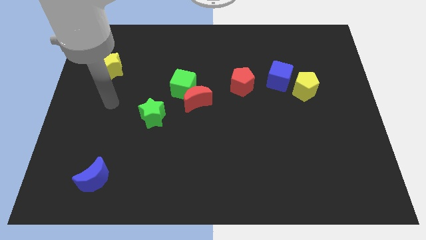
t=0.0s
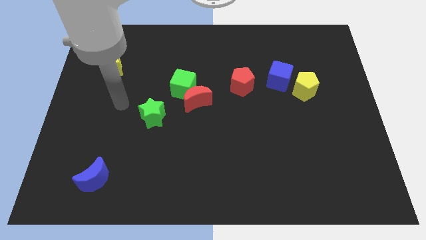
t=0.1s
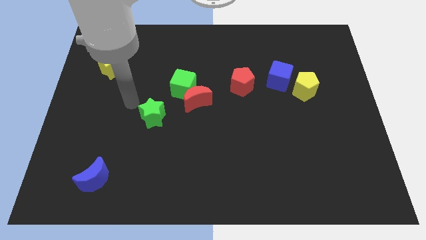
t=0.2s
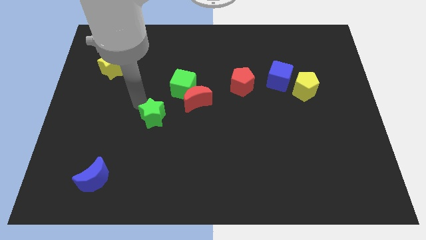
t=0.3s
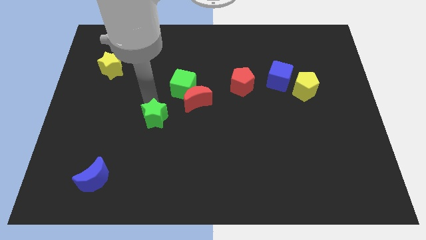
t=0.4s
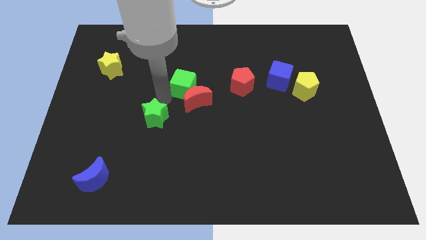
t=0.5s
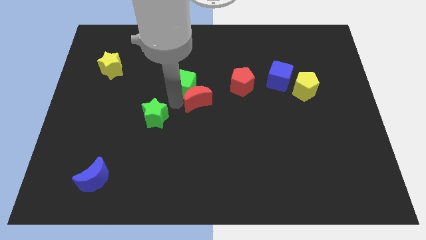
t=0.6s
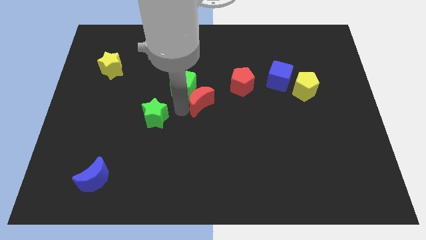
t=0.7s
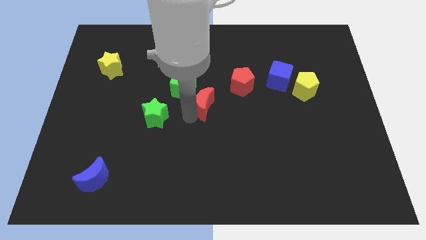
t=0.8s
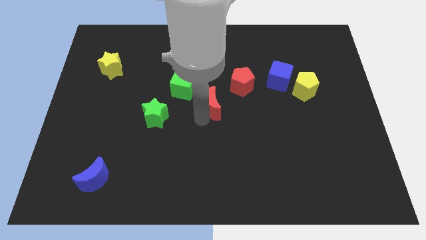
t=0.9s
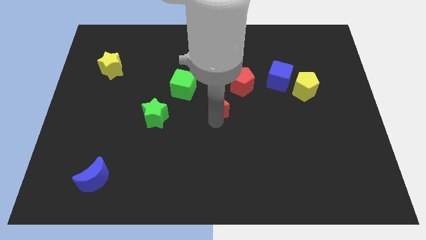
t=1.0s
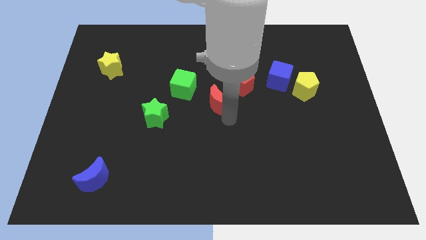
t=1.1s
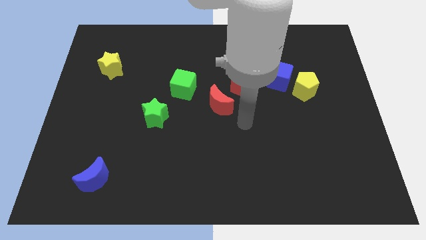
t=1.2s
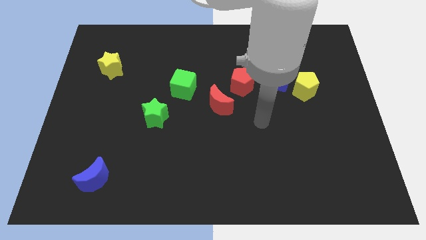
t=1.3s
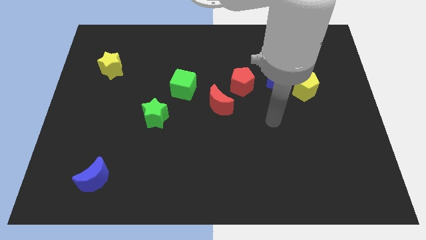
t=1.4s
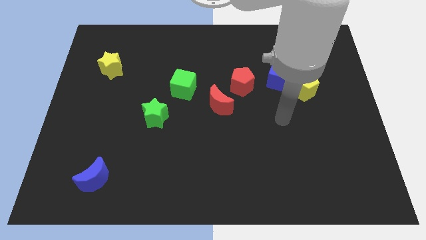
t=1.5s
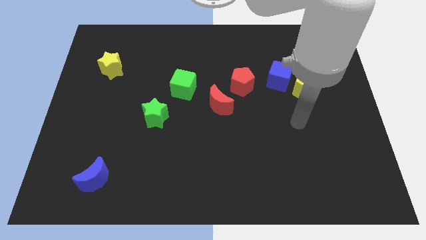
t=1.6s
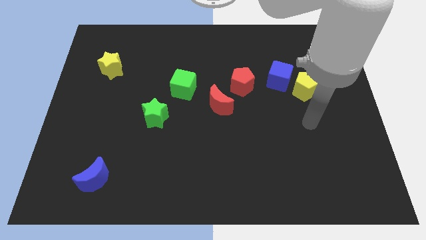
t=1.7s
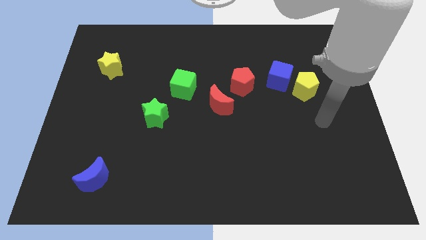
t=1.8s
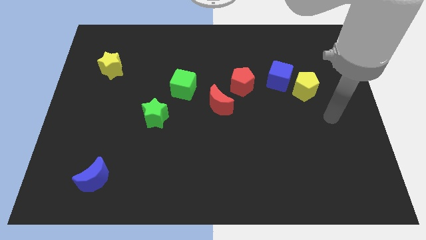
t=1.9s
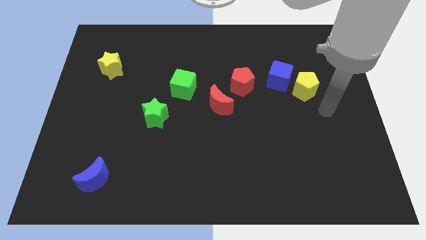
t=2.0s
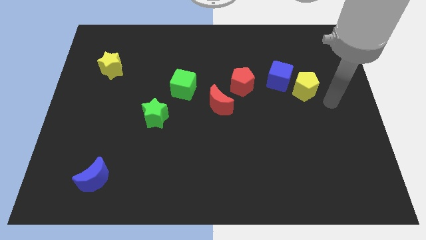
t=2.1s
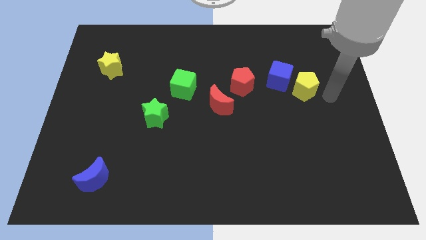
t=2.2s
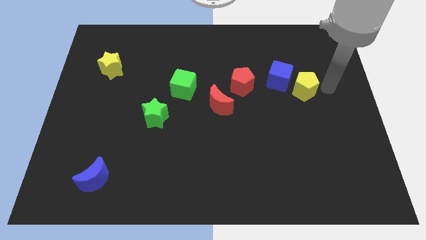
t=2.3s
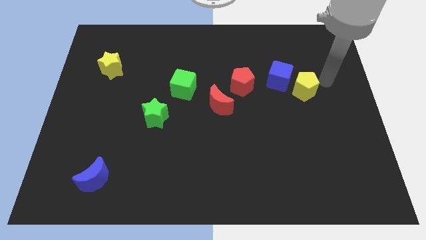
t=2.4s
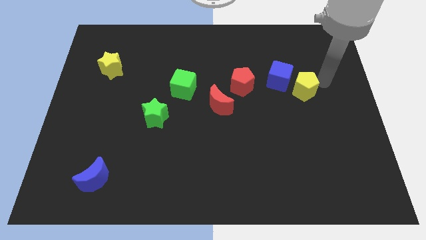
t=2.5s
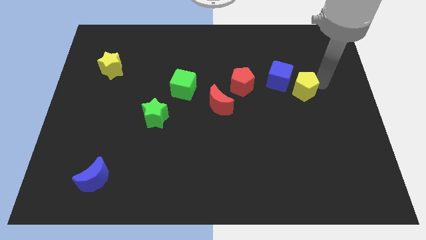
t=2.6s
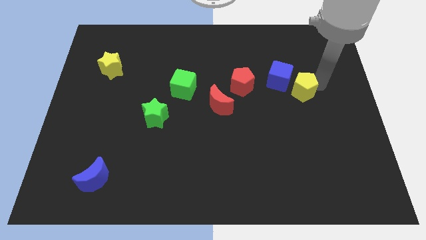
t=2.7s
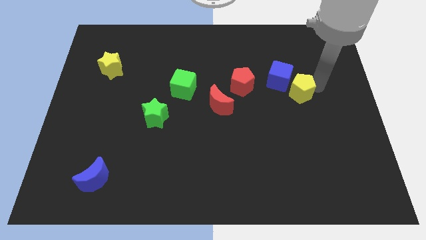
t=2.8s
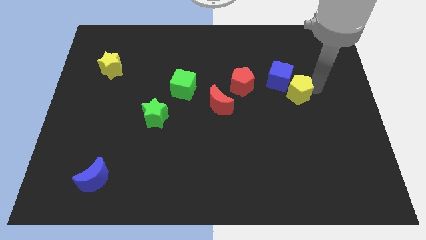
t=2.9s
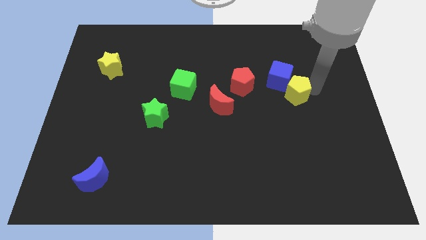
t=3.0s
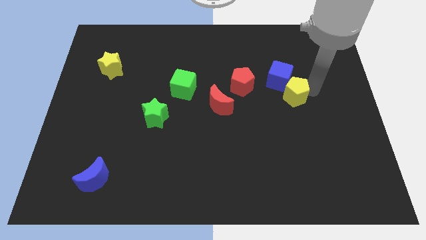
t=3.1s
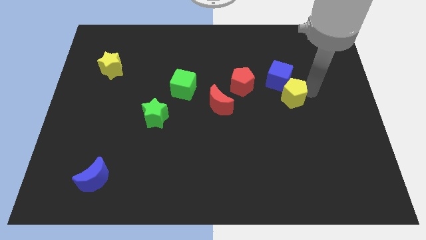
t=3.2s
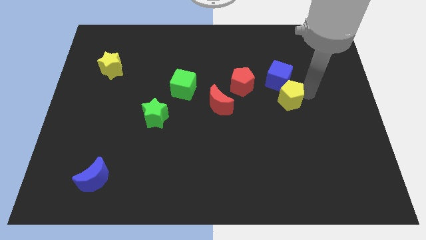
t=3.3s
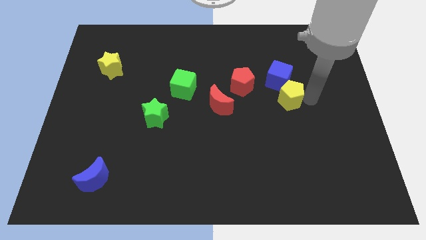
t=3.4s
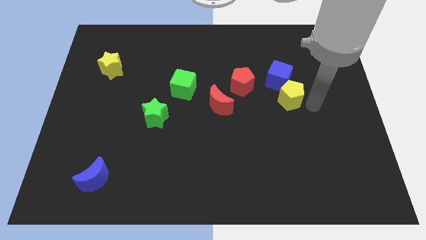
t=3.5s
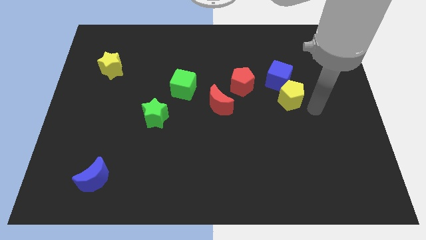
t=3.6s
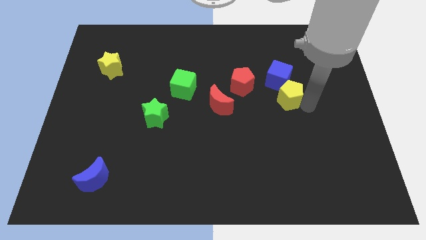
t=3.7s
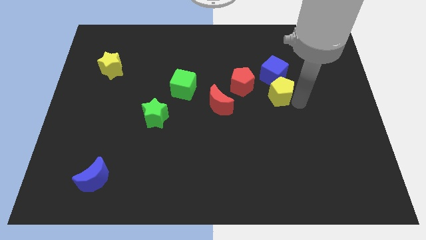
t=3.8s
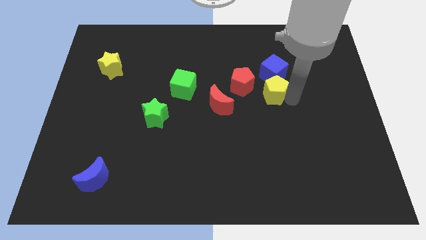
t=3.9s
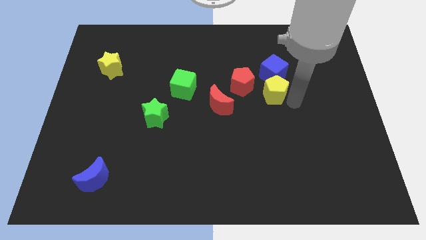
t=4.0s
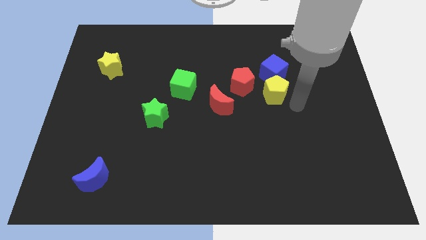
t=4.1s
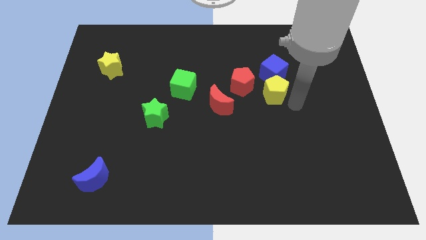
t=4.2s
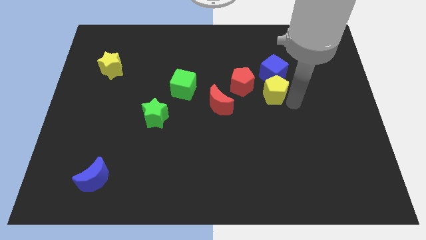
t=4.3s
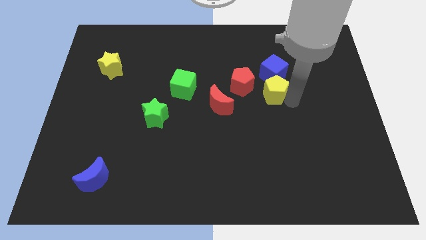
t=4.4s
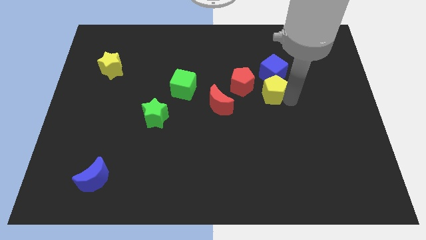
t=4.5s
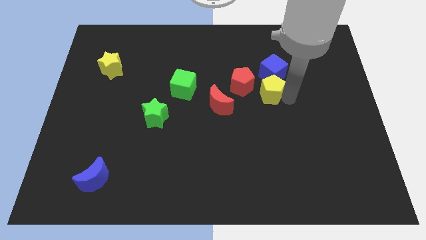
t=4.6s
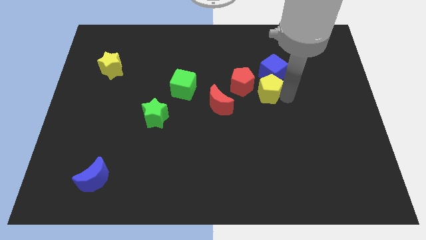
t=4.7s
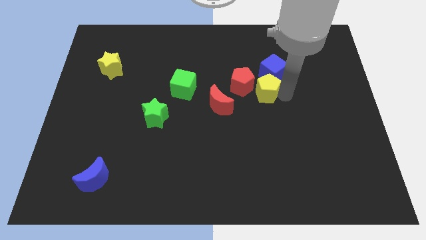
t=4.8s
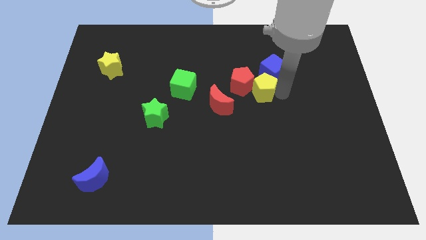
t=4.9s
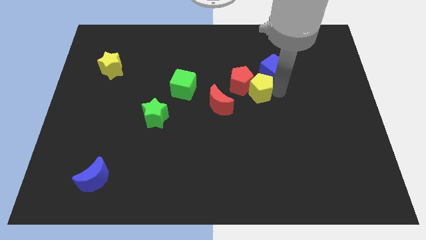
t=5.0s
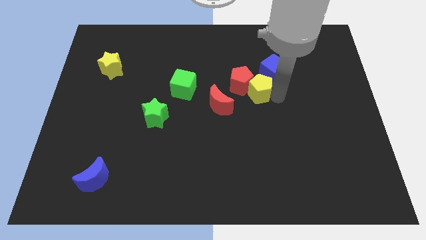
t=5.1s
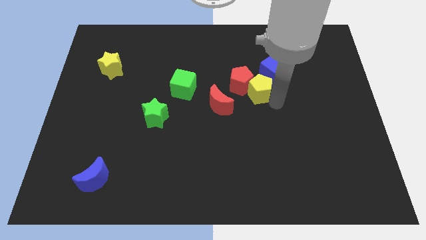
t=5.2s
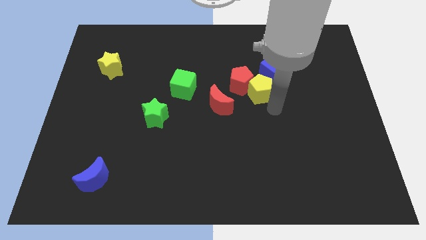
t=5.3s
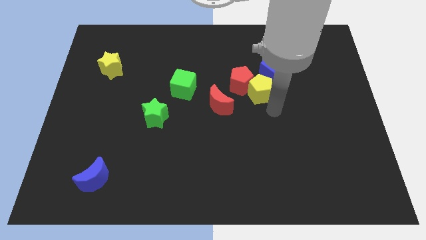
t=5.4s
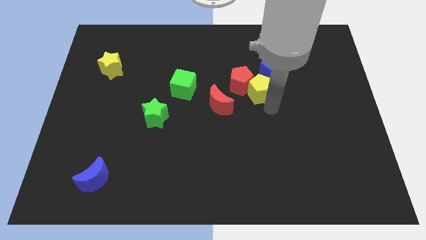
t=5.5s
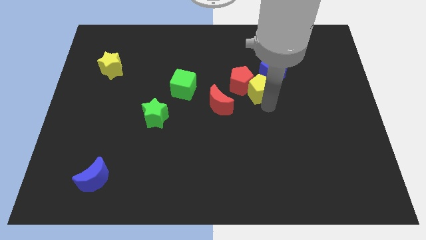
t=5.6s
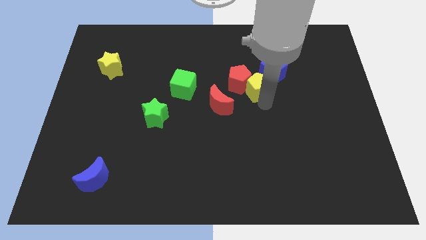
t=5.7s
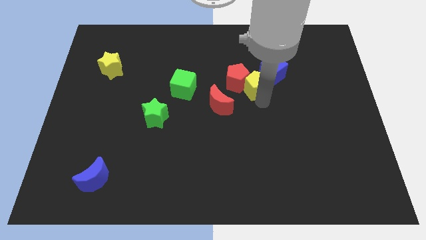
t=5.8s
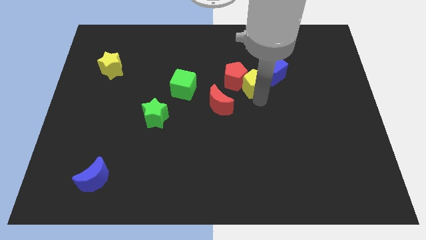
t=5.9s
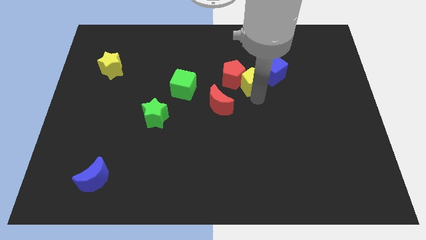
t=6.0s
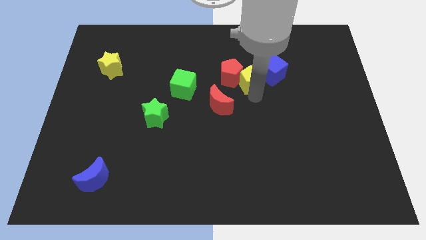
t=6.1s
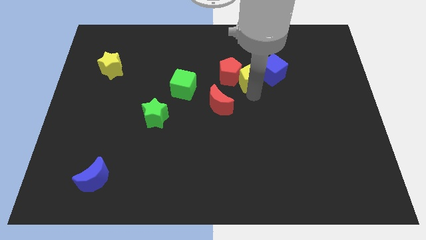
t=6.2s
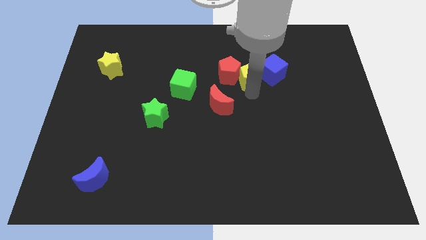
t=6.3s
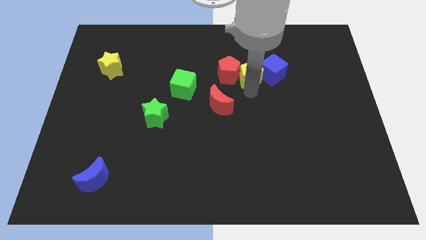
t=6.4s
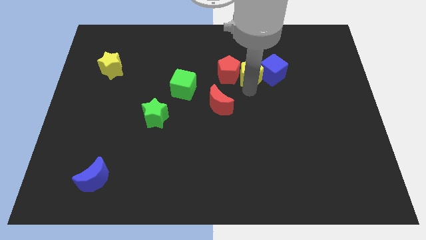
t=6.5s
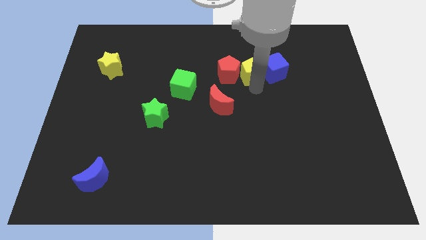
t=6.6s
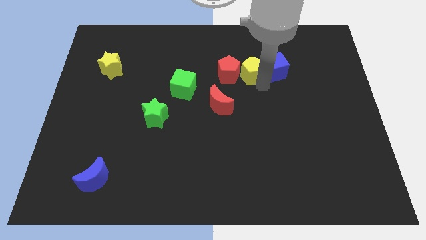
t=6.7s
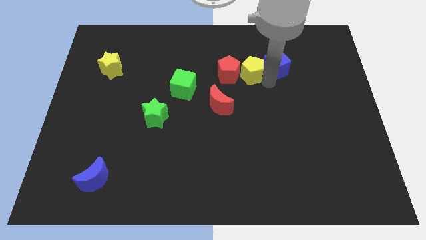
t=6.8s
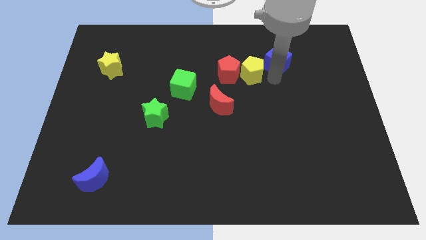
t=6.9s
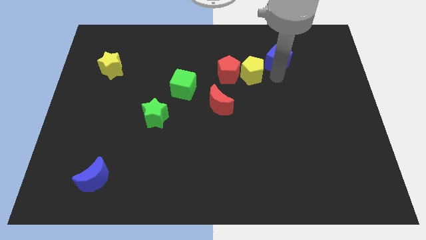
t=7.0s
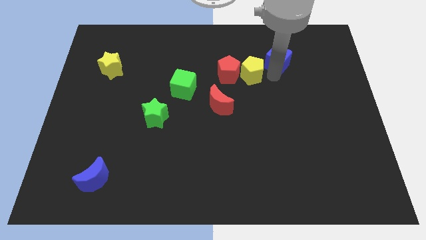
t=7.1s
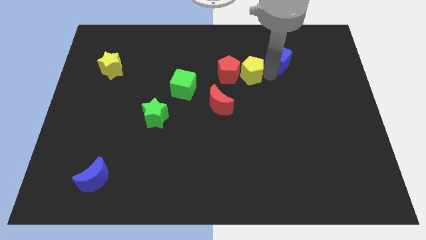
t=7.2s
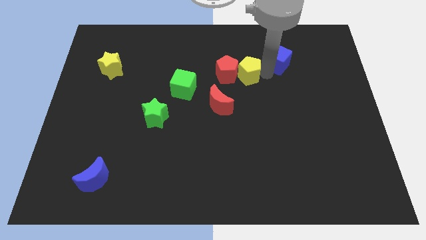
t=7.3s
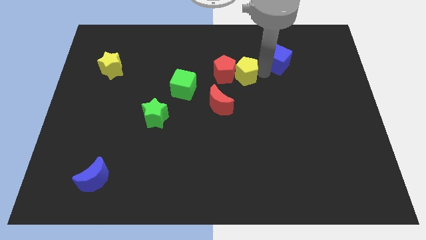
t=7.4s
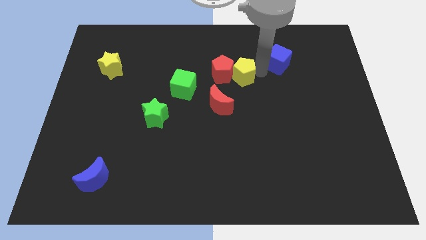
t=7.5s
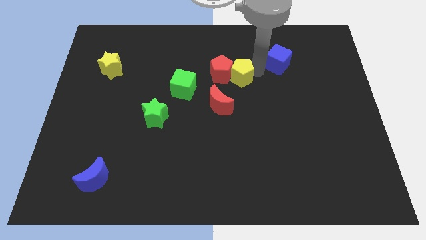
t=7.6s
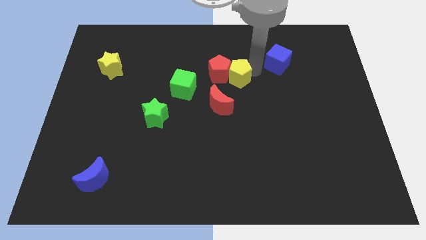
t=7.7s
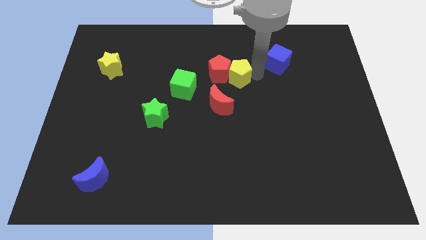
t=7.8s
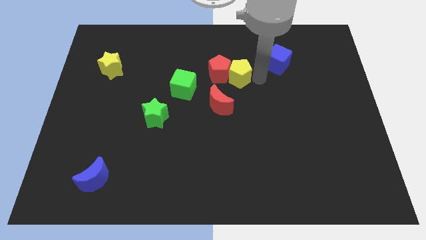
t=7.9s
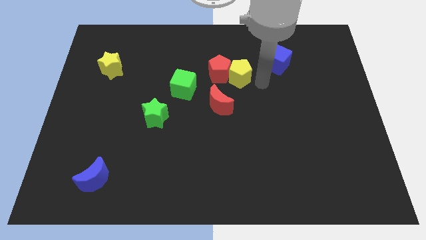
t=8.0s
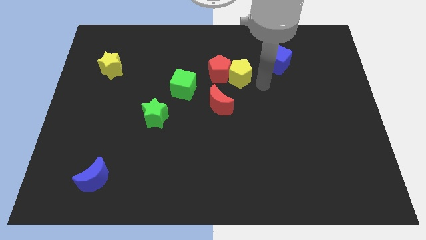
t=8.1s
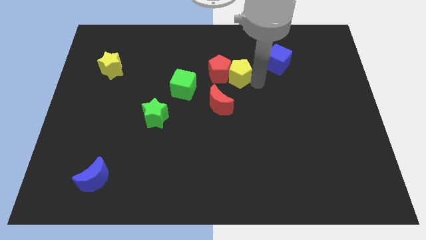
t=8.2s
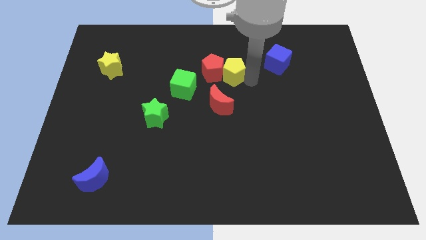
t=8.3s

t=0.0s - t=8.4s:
push the yellow pentagon to the top side of the red moon
